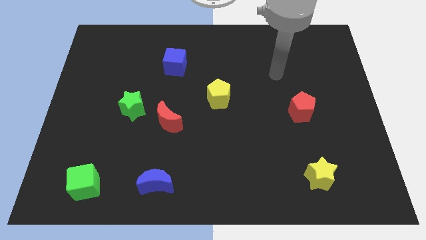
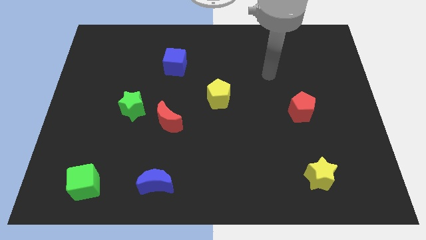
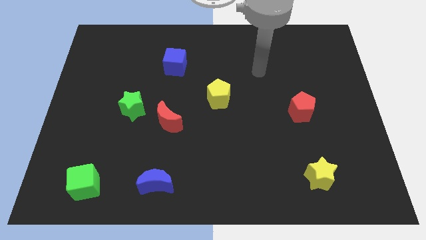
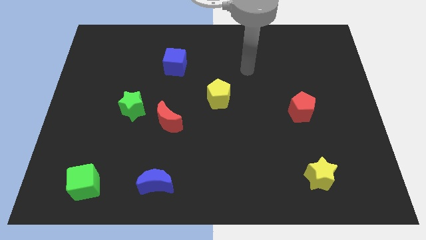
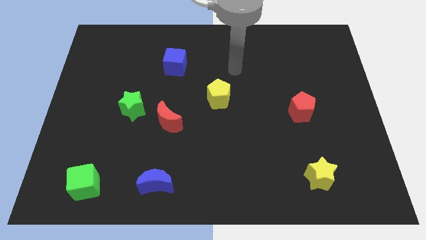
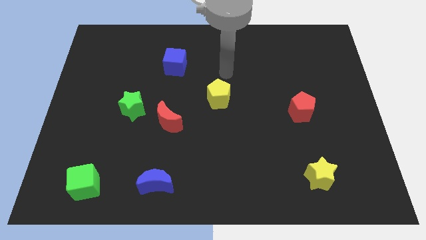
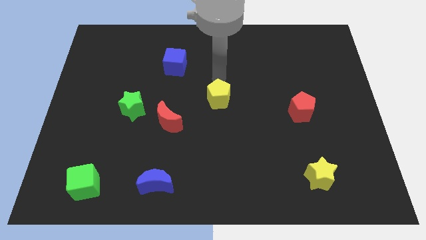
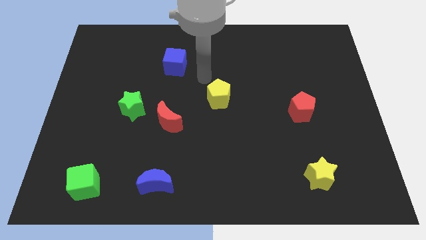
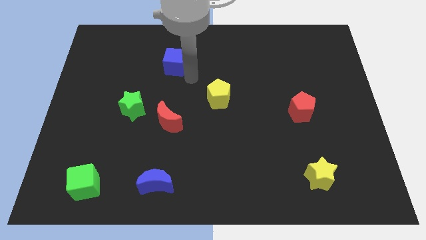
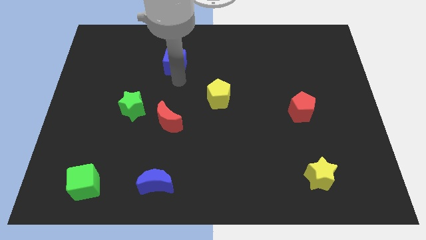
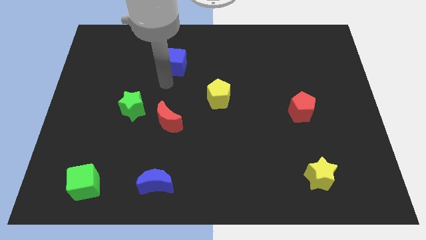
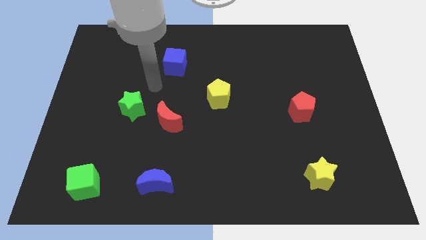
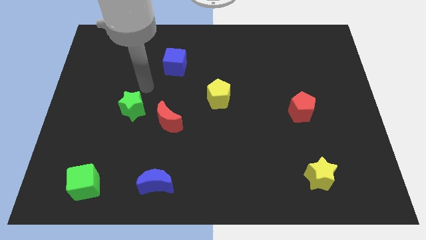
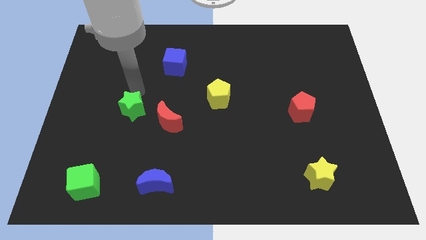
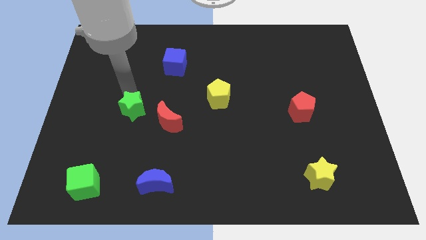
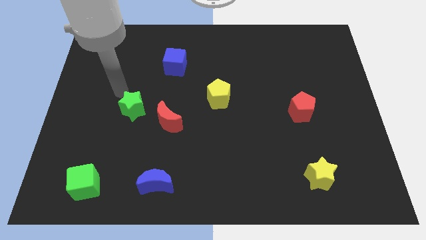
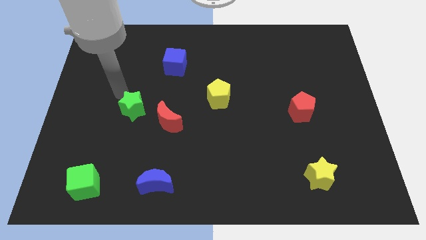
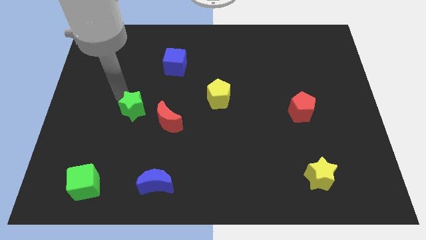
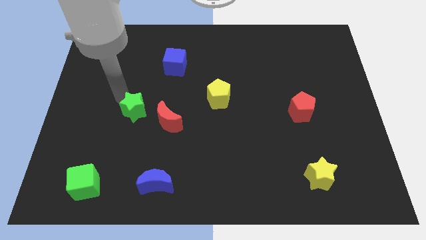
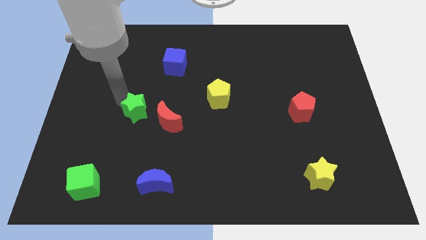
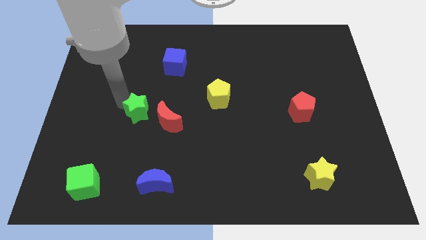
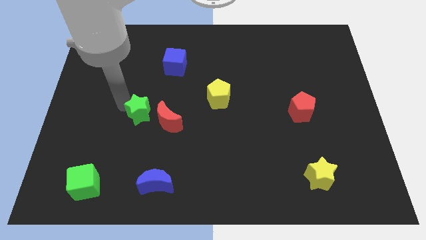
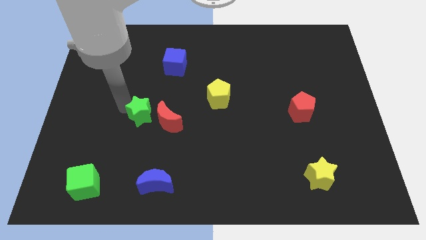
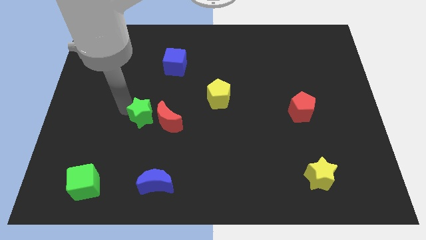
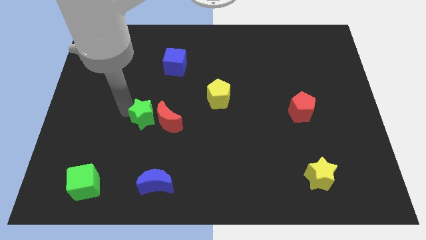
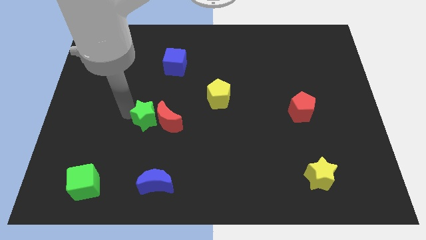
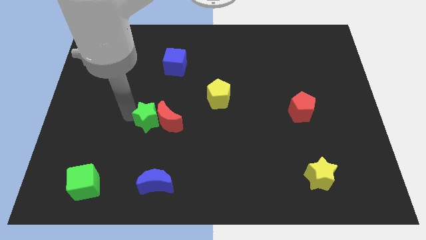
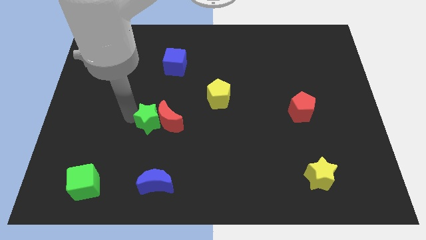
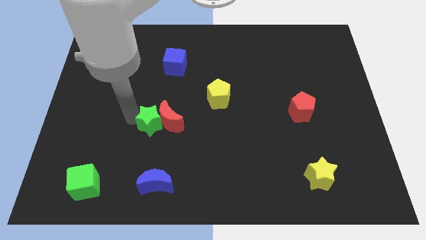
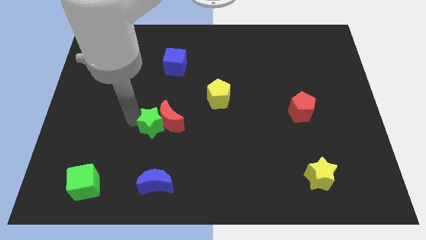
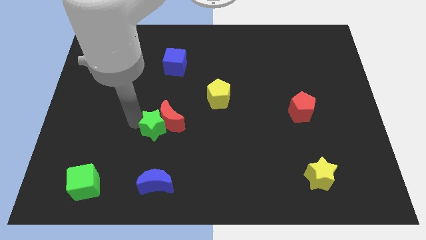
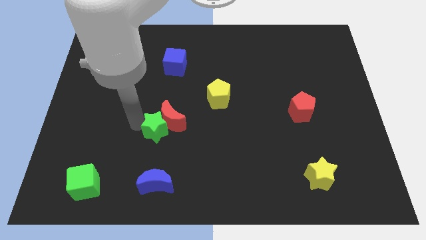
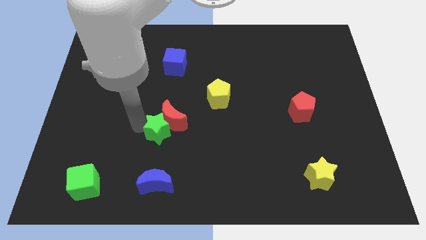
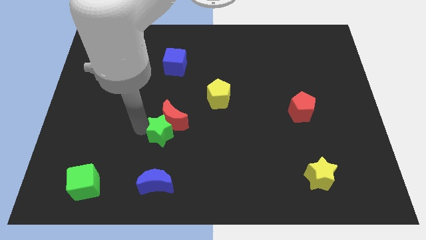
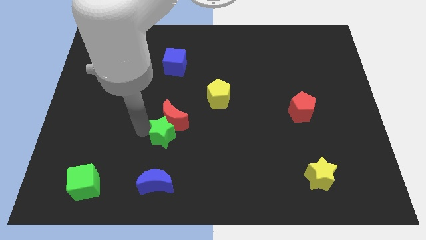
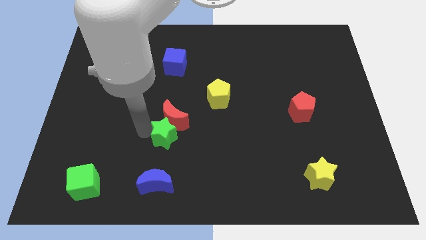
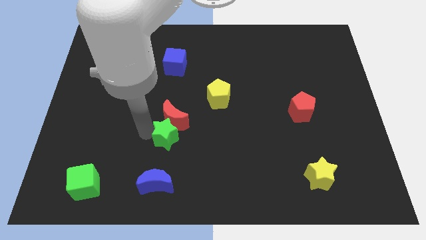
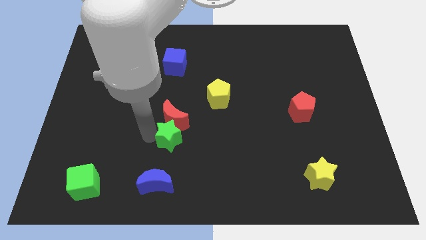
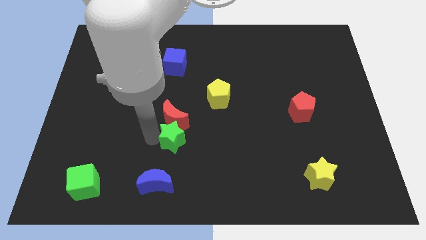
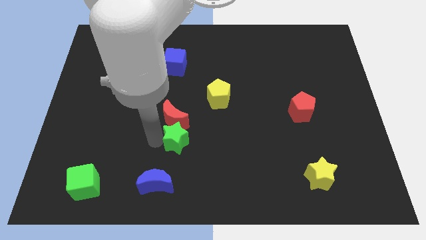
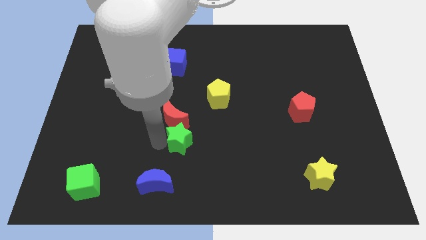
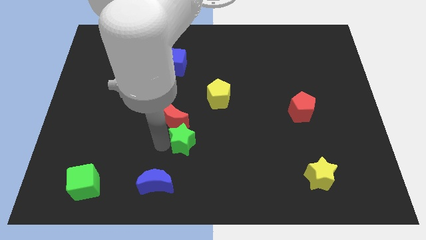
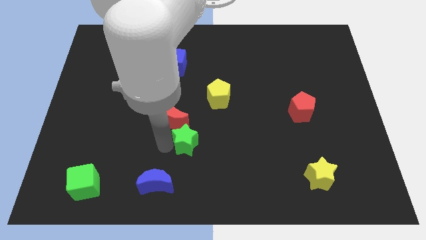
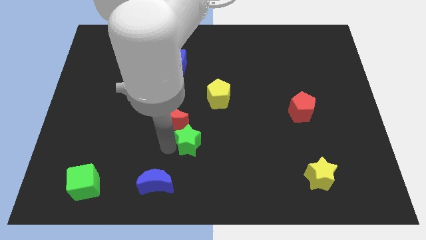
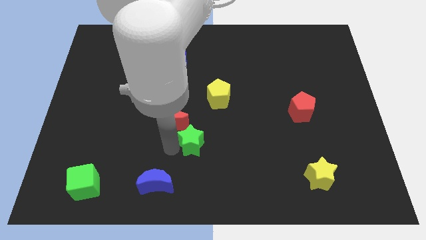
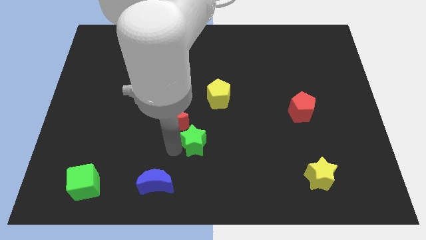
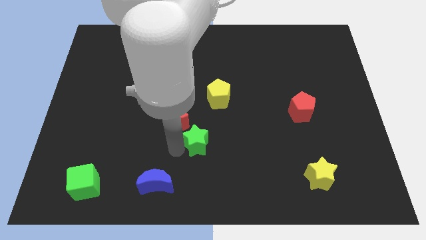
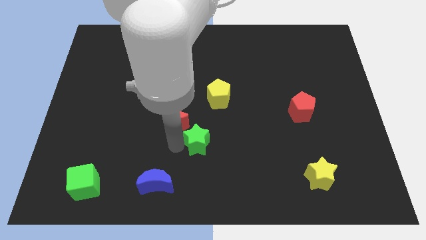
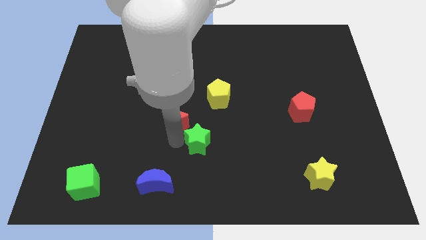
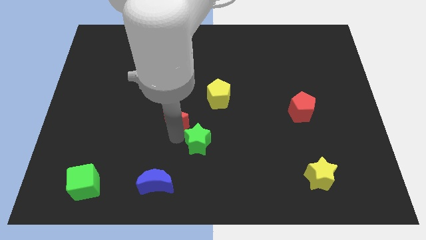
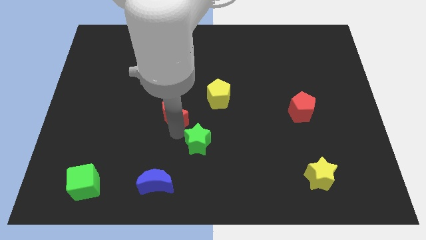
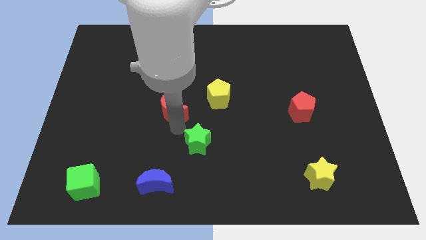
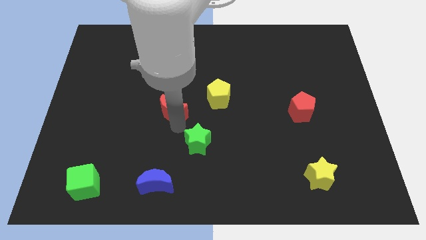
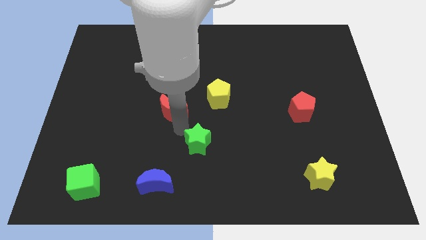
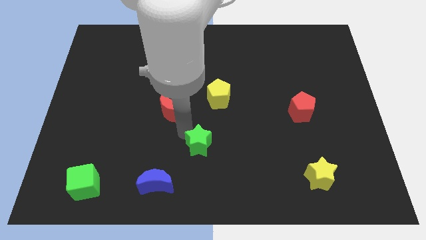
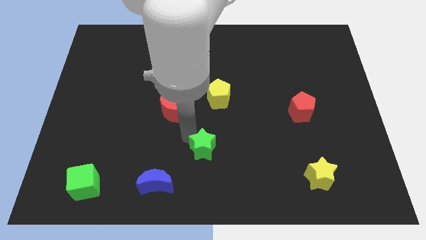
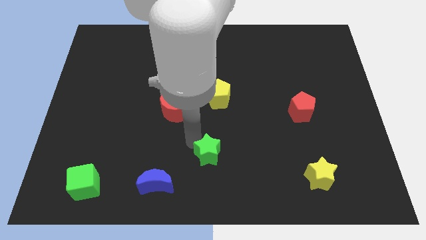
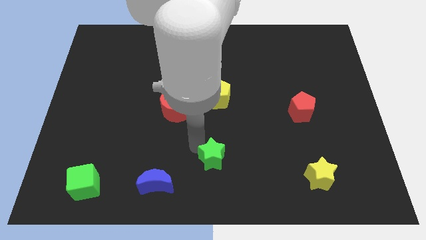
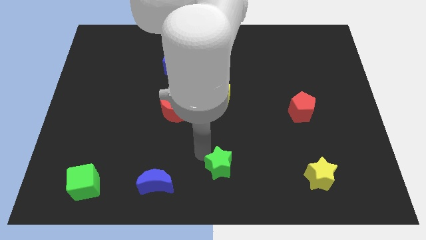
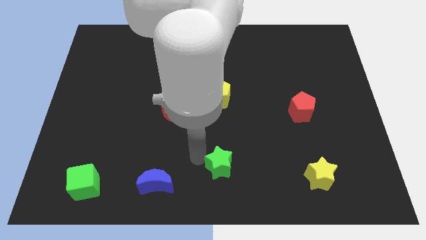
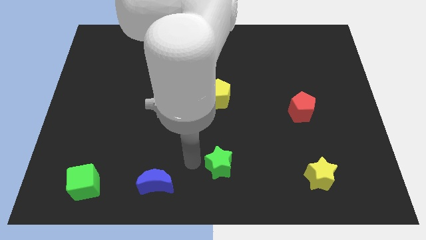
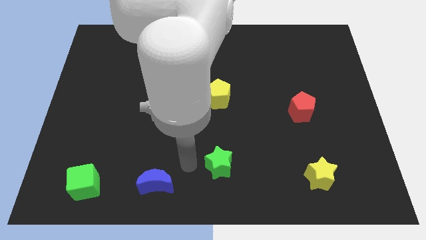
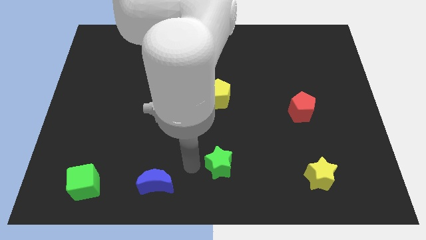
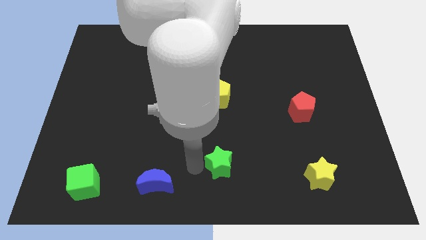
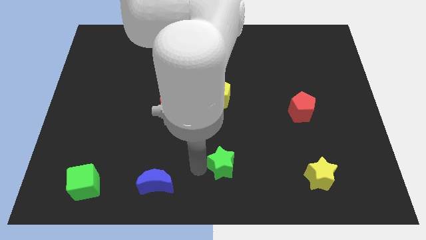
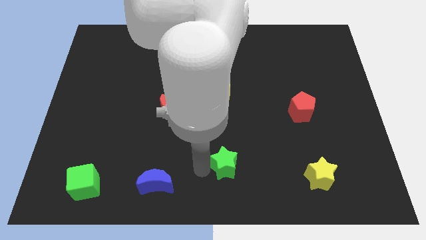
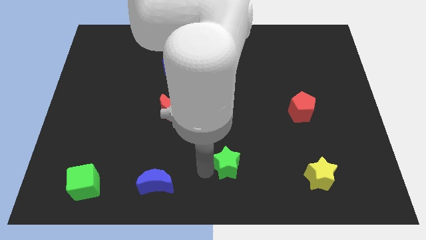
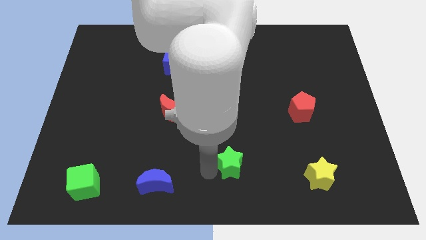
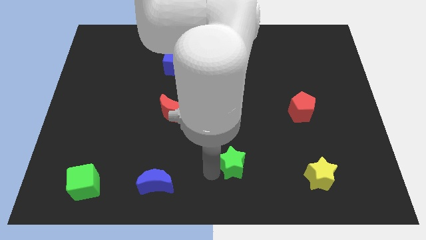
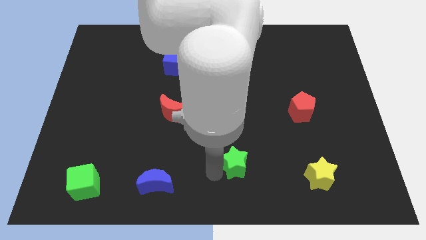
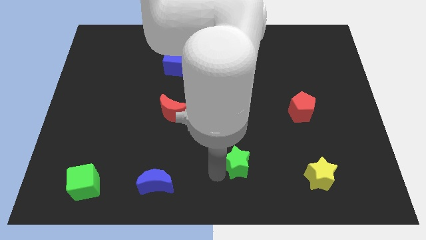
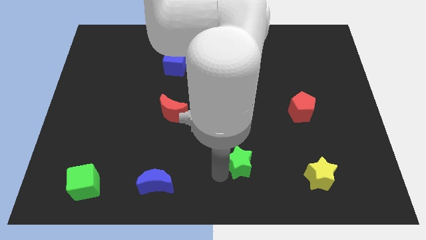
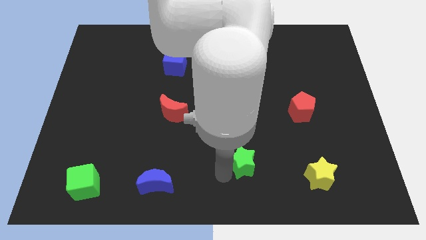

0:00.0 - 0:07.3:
slide the green star to the left side of the yellow star

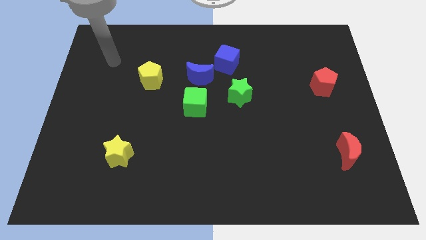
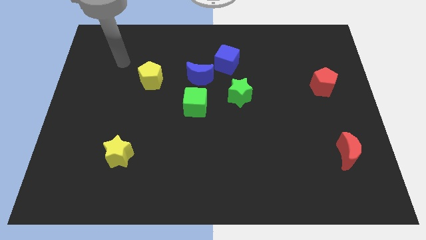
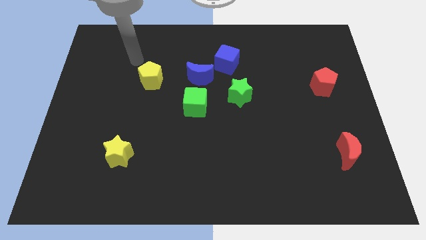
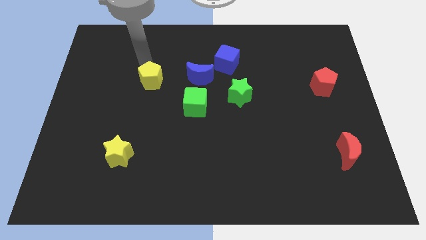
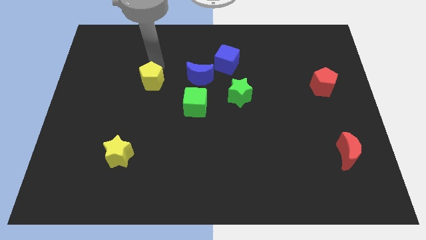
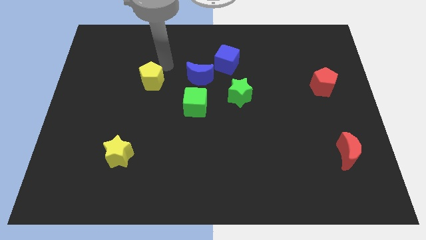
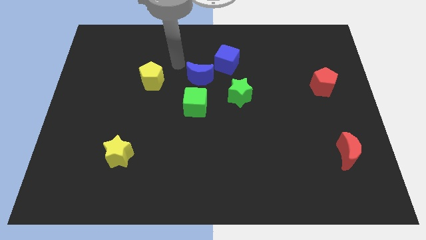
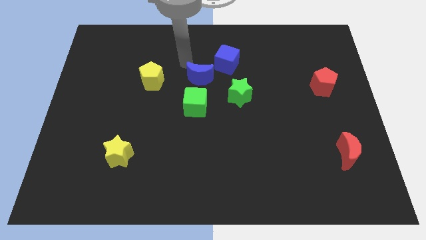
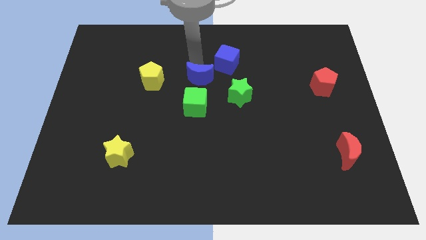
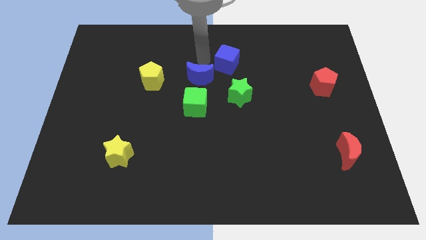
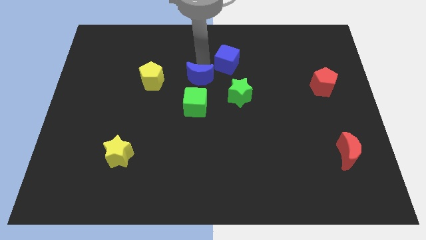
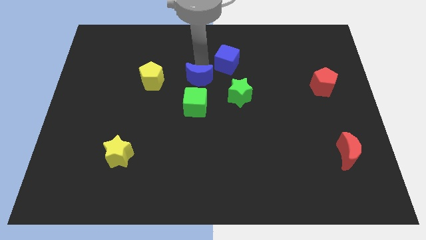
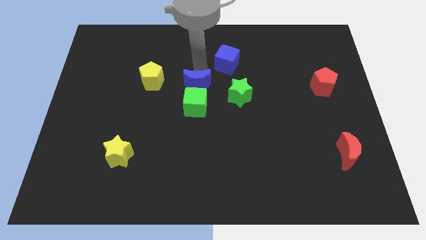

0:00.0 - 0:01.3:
move the blue moon left of the green star
